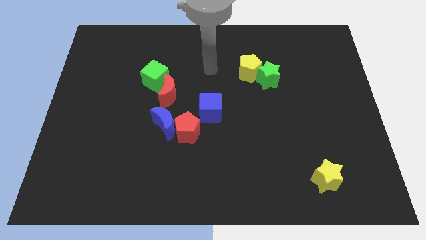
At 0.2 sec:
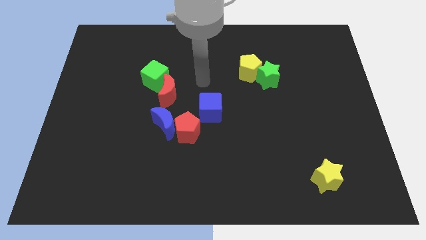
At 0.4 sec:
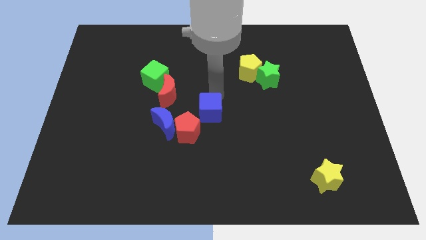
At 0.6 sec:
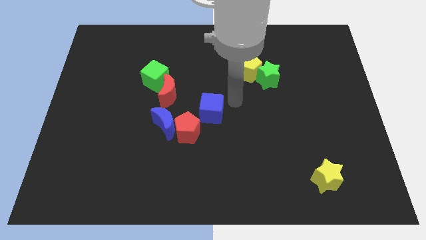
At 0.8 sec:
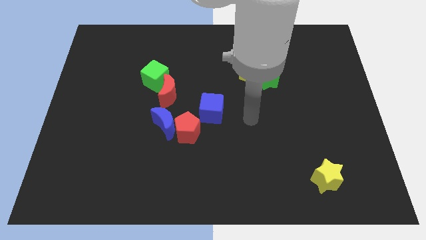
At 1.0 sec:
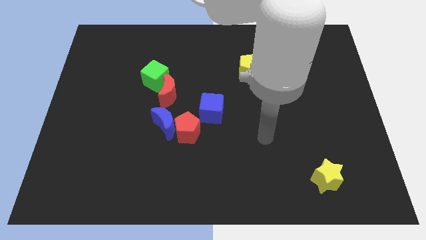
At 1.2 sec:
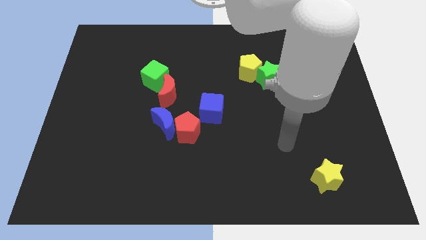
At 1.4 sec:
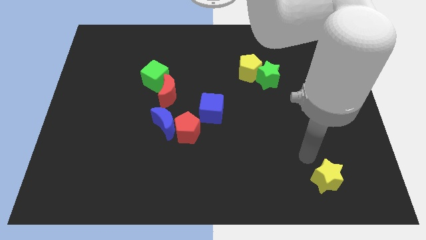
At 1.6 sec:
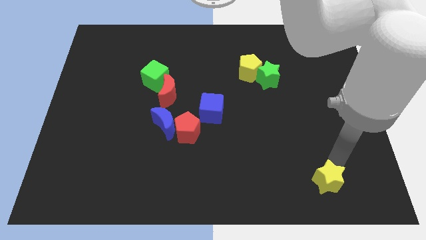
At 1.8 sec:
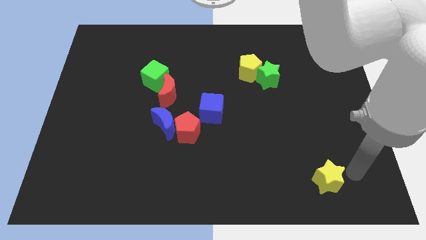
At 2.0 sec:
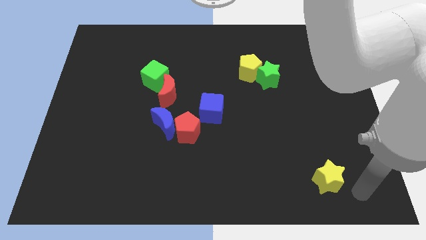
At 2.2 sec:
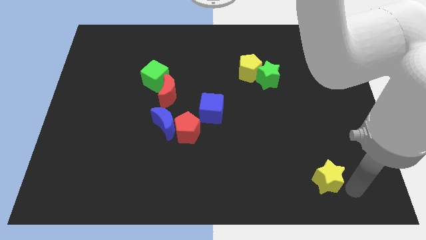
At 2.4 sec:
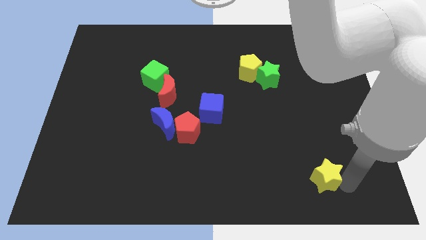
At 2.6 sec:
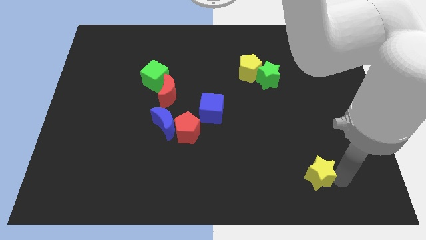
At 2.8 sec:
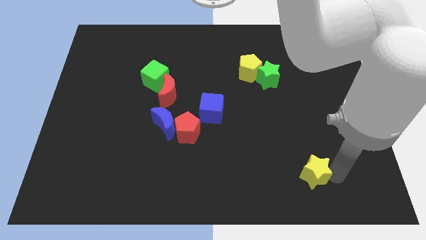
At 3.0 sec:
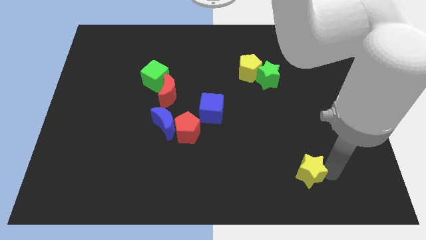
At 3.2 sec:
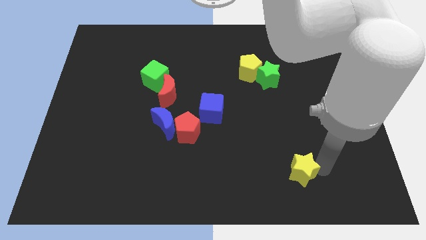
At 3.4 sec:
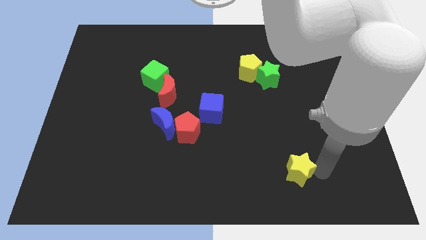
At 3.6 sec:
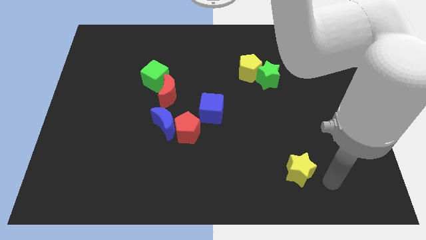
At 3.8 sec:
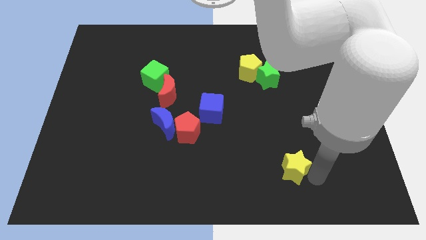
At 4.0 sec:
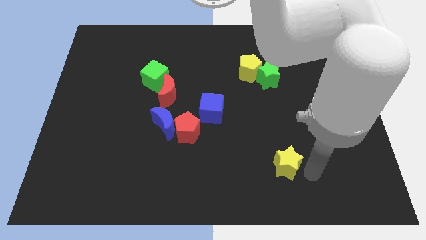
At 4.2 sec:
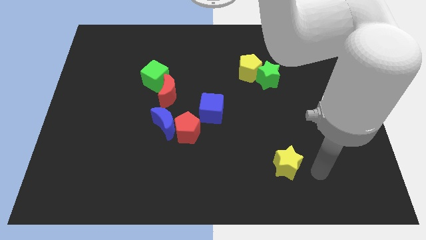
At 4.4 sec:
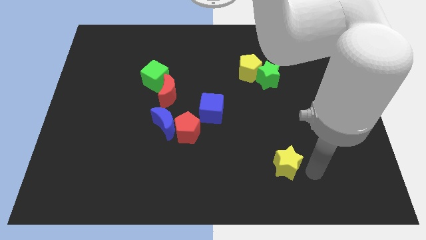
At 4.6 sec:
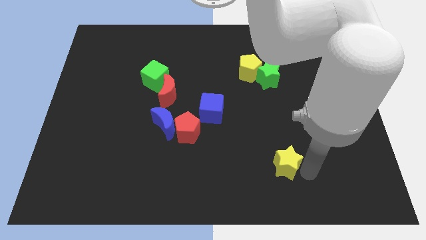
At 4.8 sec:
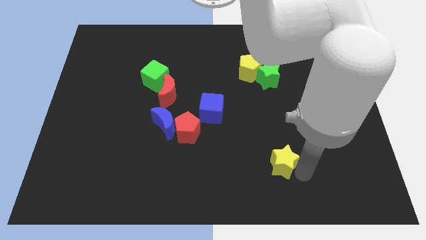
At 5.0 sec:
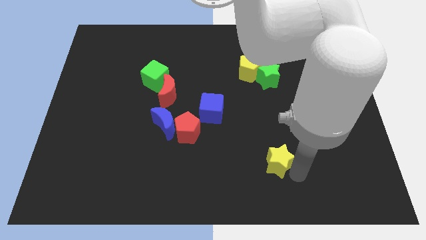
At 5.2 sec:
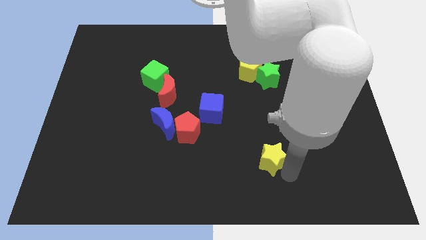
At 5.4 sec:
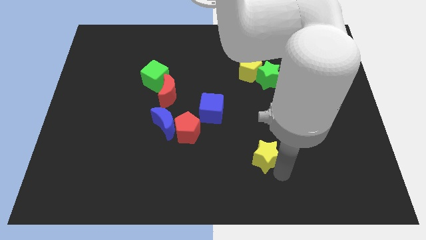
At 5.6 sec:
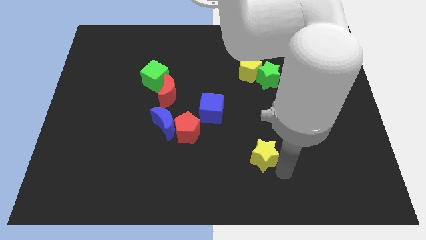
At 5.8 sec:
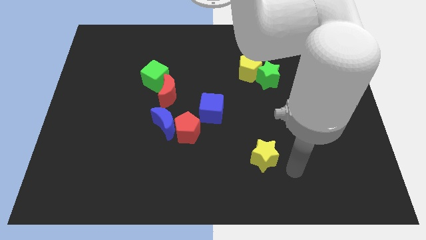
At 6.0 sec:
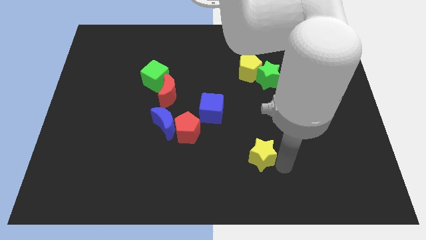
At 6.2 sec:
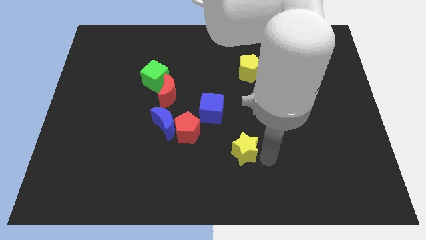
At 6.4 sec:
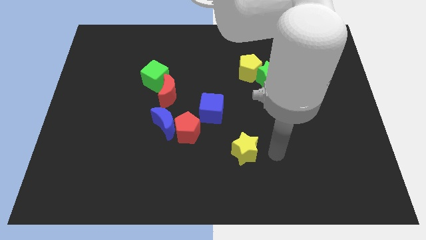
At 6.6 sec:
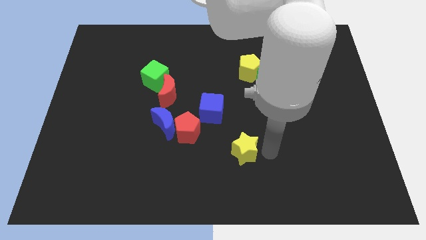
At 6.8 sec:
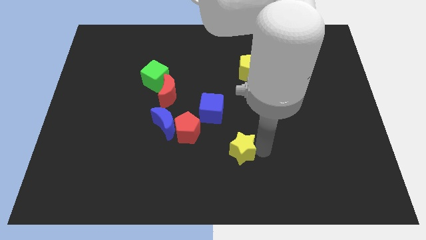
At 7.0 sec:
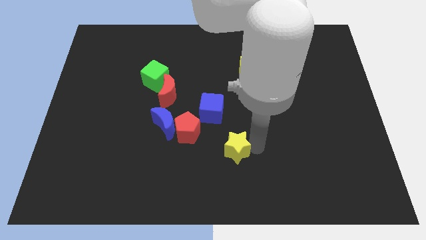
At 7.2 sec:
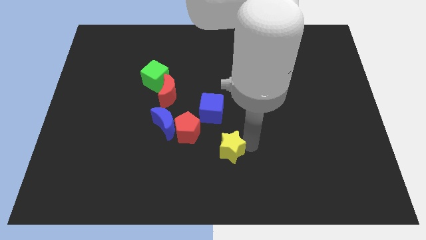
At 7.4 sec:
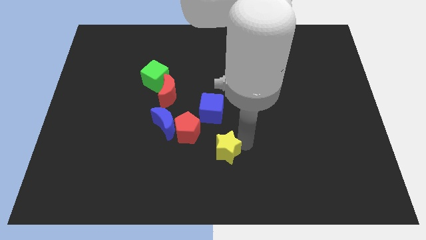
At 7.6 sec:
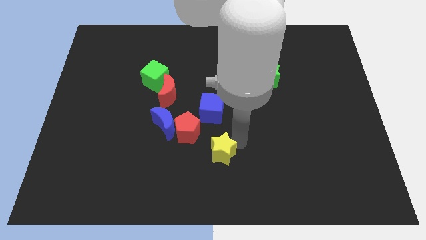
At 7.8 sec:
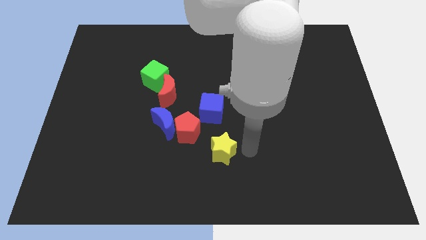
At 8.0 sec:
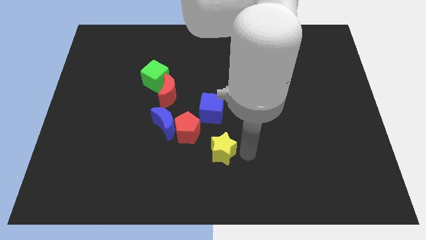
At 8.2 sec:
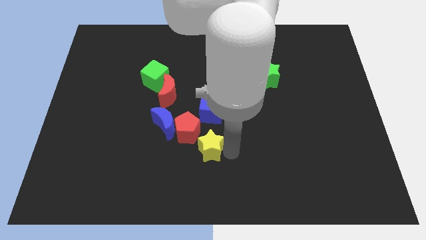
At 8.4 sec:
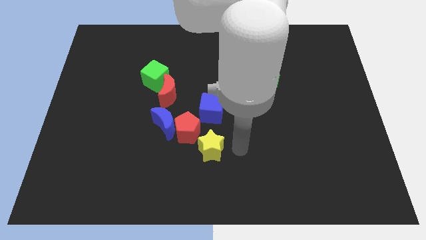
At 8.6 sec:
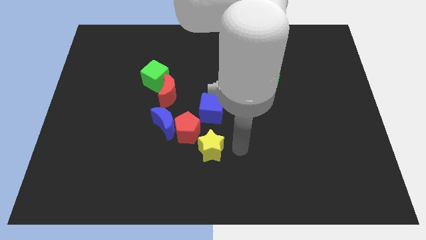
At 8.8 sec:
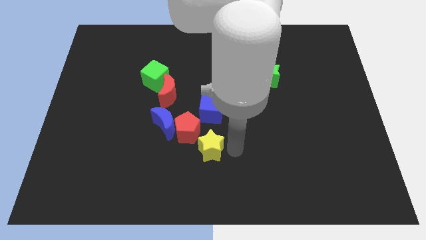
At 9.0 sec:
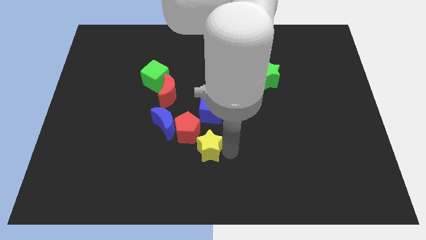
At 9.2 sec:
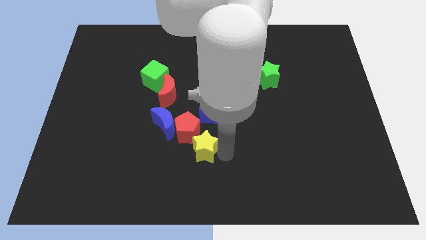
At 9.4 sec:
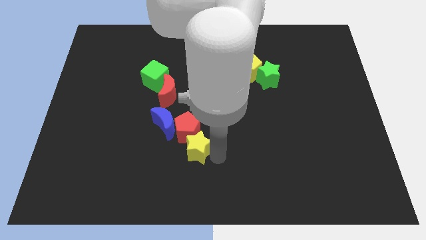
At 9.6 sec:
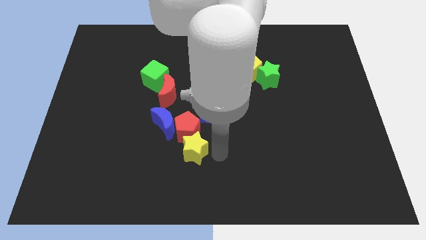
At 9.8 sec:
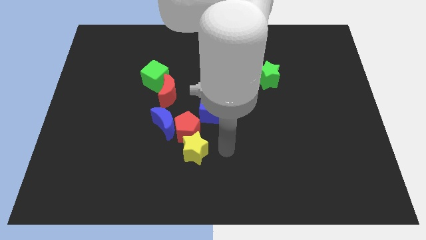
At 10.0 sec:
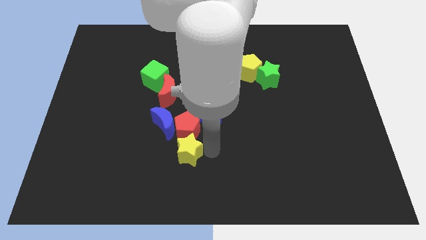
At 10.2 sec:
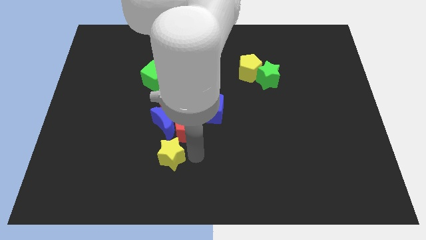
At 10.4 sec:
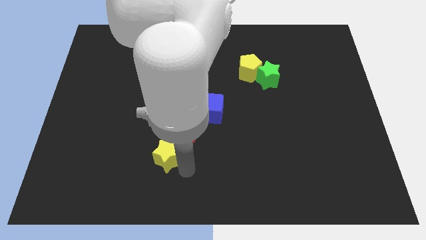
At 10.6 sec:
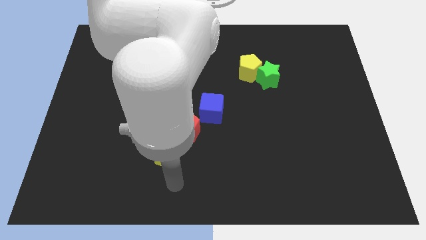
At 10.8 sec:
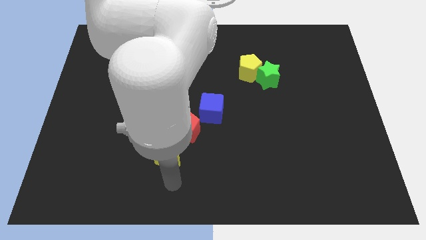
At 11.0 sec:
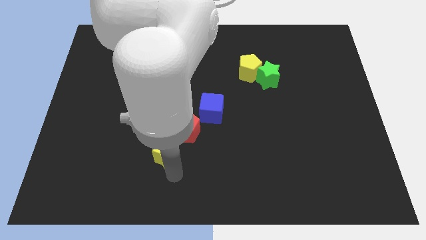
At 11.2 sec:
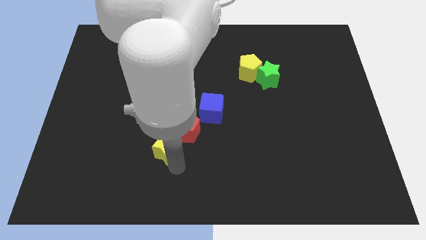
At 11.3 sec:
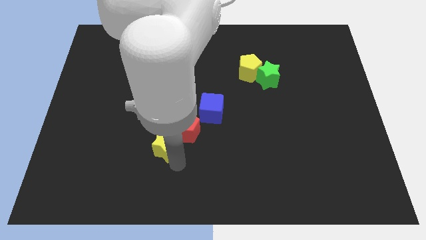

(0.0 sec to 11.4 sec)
slide the yellow star next to the blue moon

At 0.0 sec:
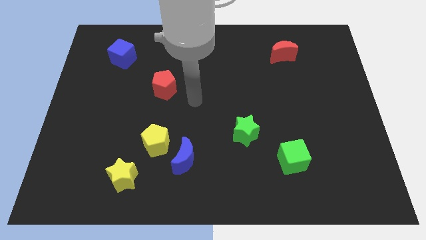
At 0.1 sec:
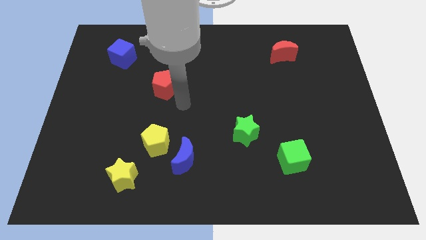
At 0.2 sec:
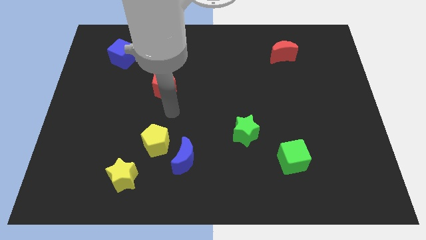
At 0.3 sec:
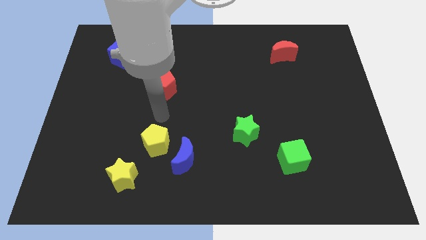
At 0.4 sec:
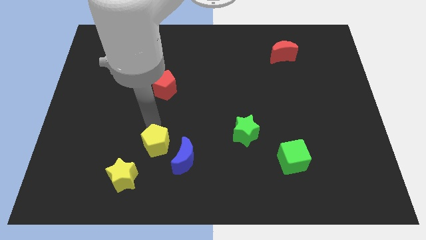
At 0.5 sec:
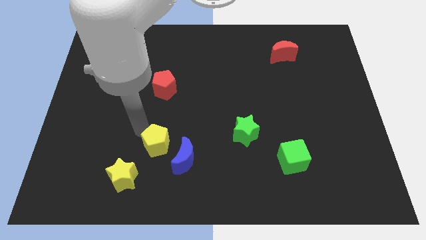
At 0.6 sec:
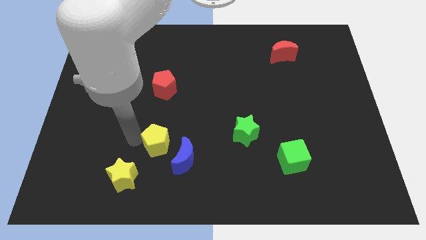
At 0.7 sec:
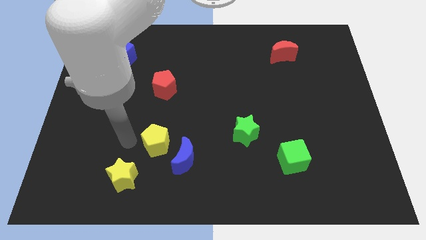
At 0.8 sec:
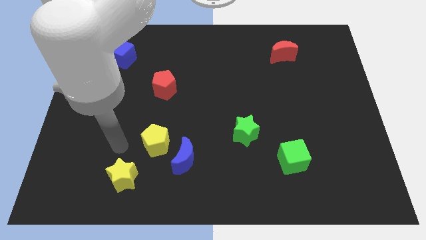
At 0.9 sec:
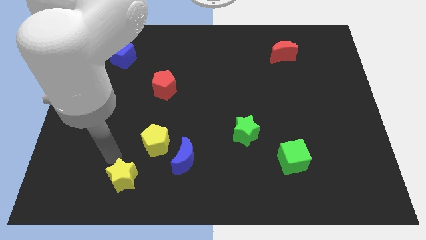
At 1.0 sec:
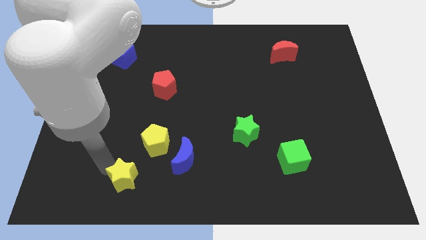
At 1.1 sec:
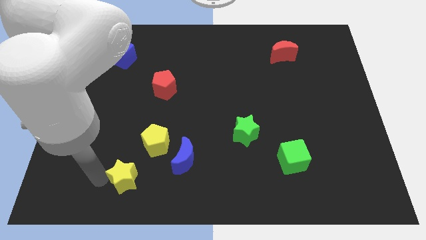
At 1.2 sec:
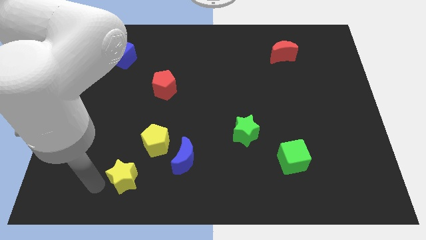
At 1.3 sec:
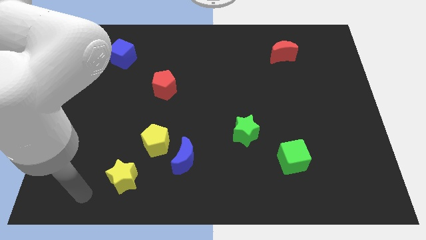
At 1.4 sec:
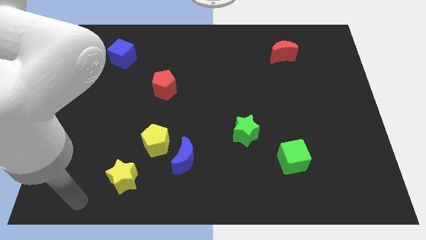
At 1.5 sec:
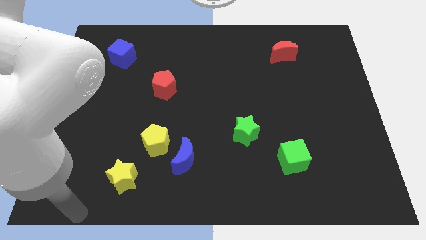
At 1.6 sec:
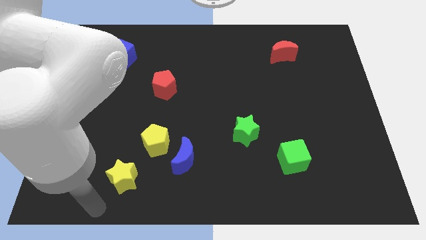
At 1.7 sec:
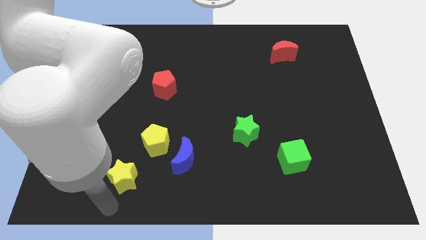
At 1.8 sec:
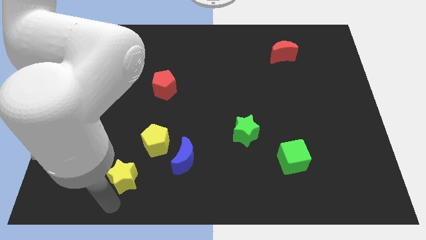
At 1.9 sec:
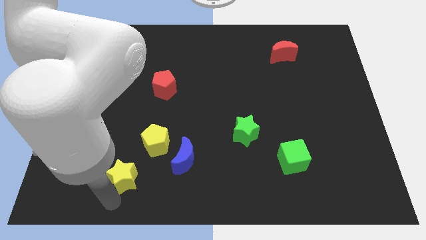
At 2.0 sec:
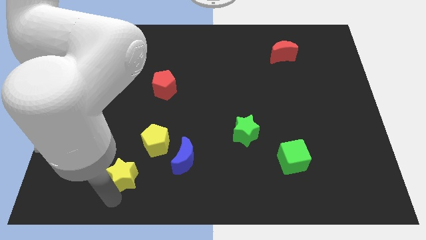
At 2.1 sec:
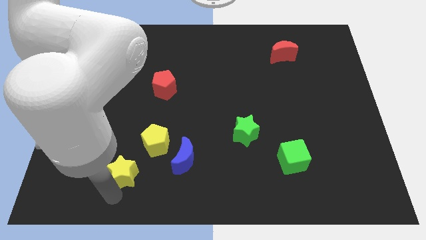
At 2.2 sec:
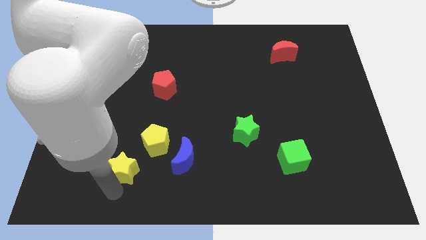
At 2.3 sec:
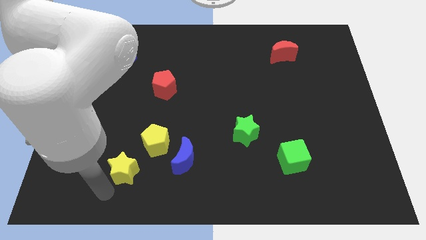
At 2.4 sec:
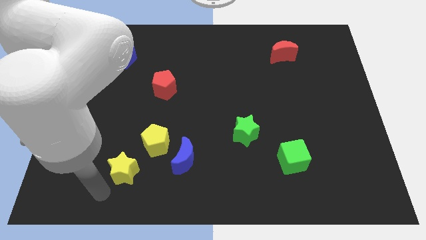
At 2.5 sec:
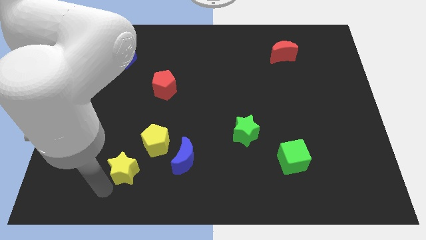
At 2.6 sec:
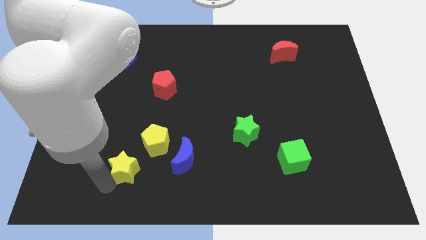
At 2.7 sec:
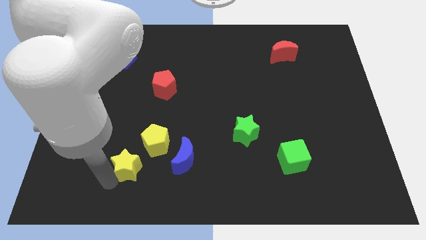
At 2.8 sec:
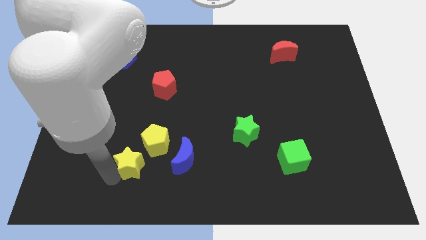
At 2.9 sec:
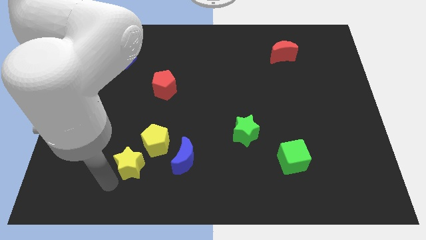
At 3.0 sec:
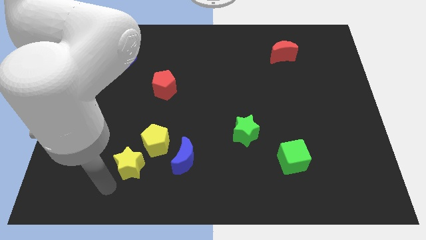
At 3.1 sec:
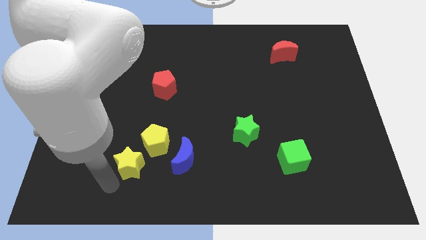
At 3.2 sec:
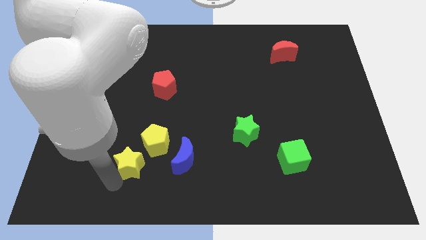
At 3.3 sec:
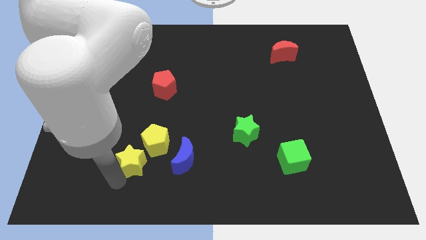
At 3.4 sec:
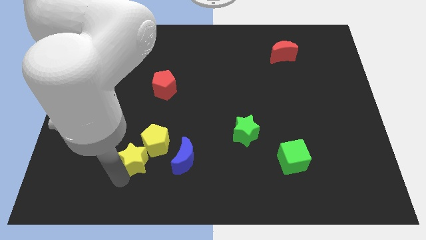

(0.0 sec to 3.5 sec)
push the yellow star next to the yellow pentagon
